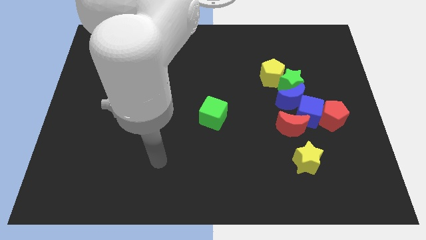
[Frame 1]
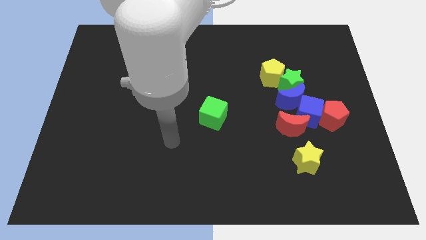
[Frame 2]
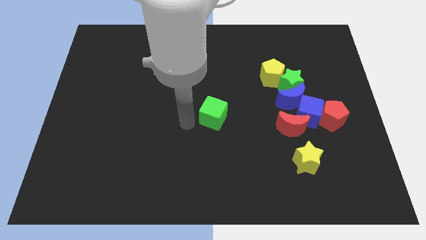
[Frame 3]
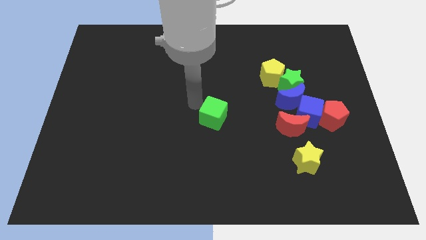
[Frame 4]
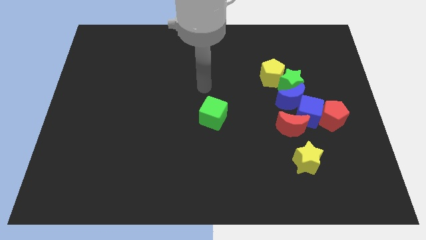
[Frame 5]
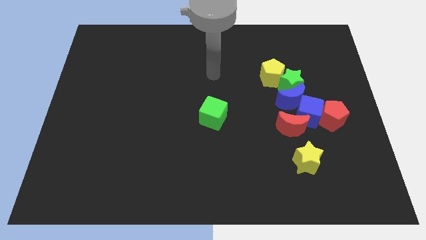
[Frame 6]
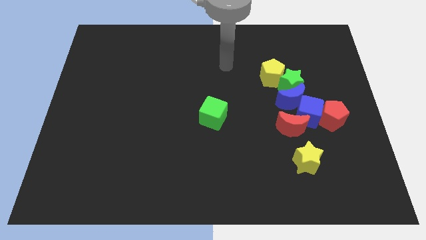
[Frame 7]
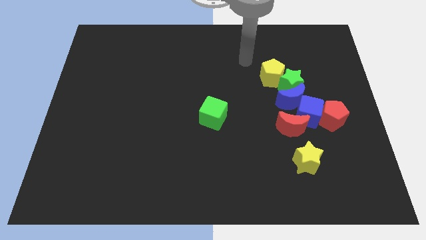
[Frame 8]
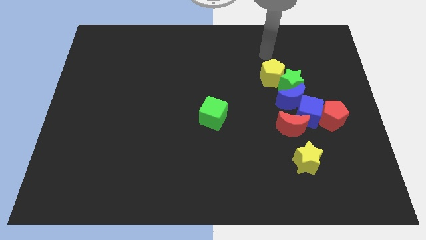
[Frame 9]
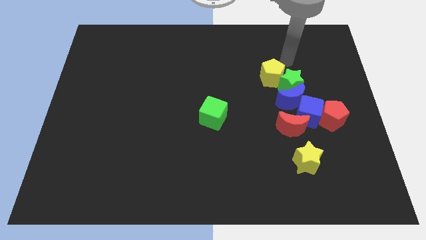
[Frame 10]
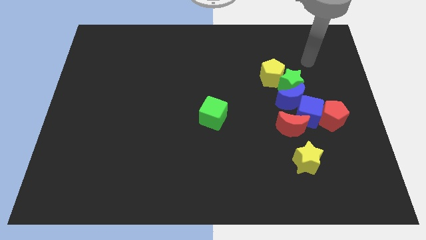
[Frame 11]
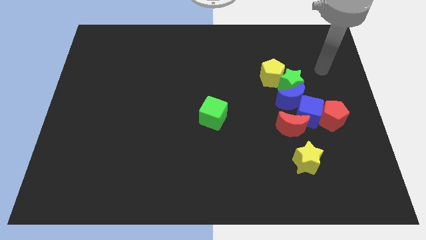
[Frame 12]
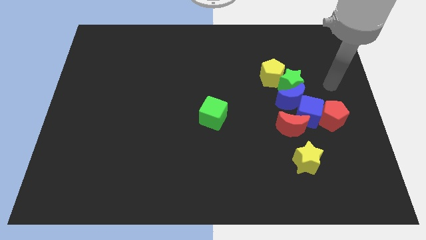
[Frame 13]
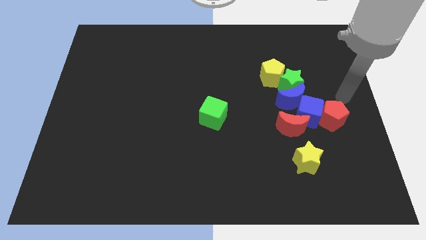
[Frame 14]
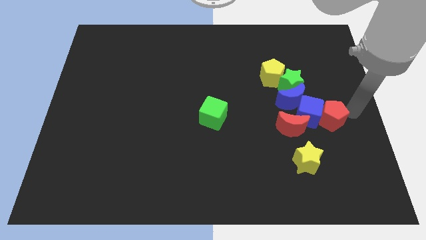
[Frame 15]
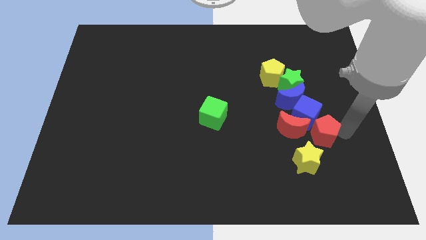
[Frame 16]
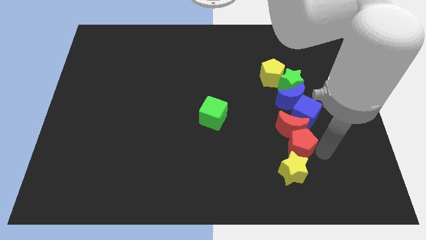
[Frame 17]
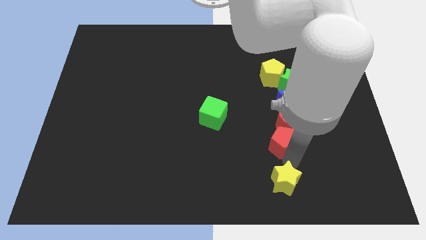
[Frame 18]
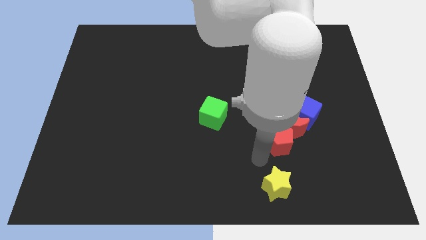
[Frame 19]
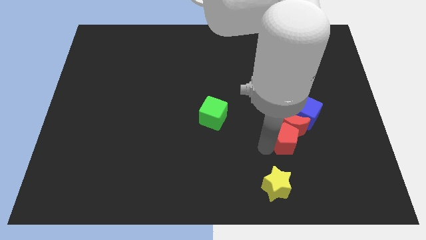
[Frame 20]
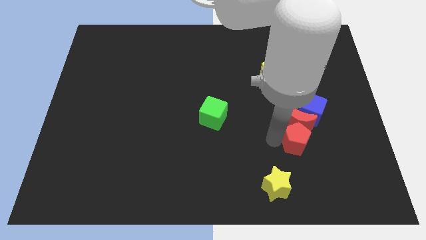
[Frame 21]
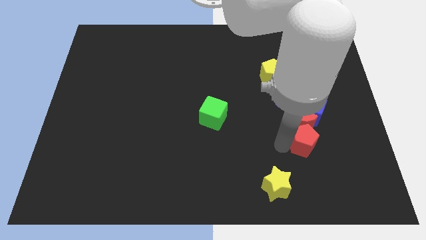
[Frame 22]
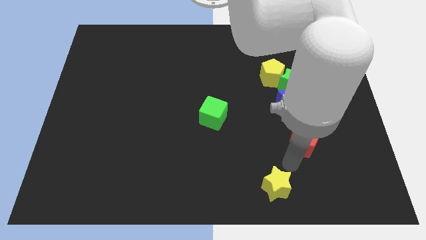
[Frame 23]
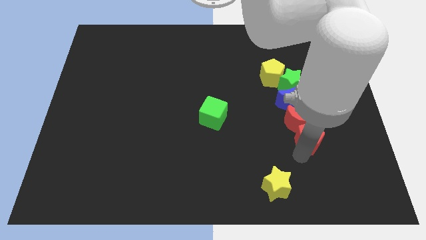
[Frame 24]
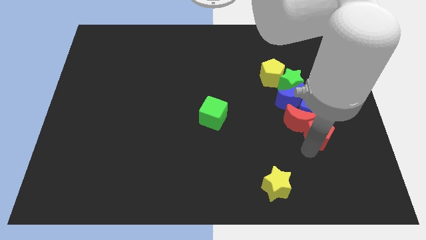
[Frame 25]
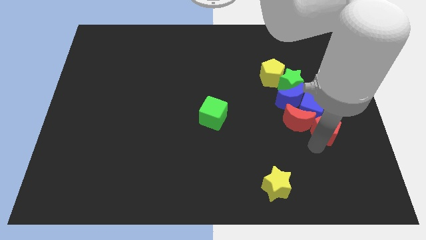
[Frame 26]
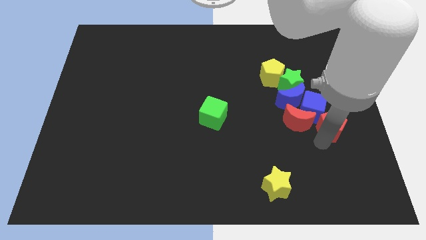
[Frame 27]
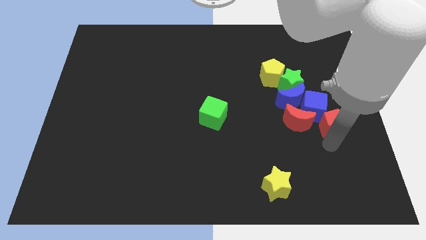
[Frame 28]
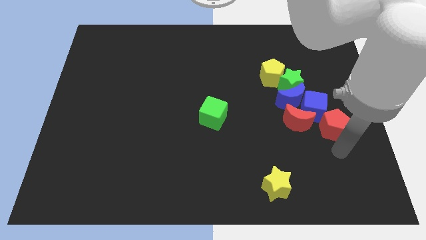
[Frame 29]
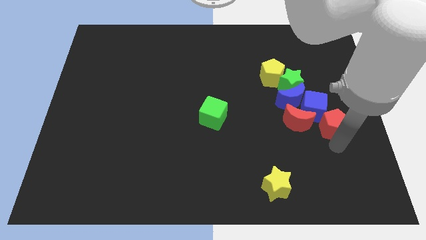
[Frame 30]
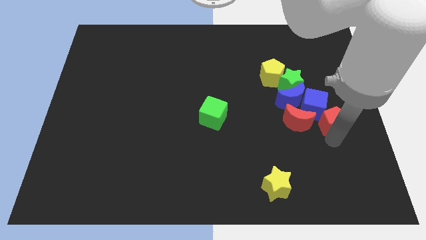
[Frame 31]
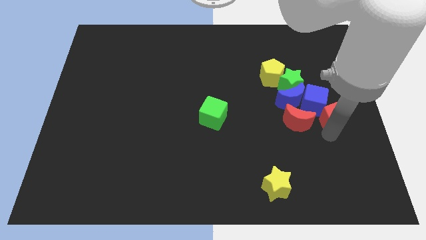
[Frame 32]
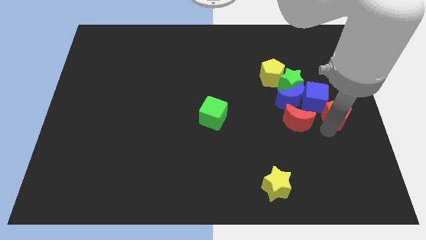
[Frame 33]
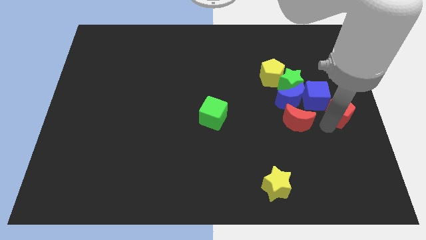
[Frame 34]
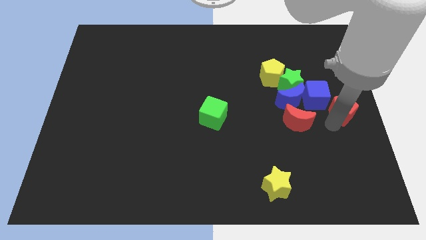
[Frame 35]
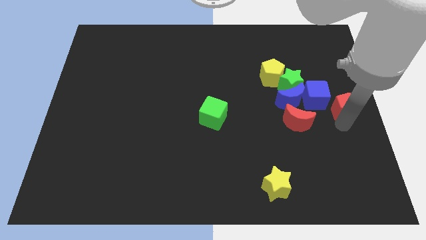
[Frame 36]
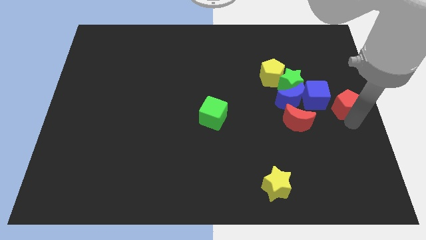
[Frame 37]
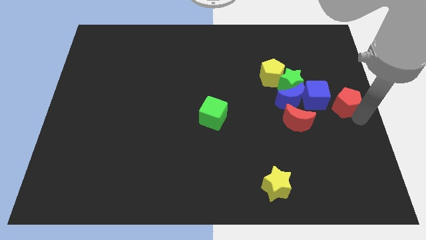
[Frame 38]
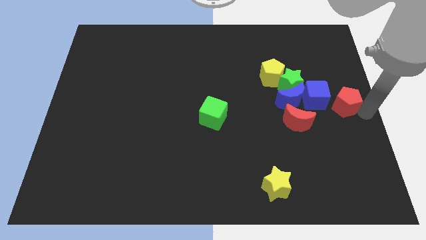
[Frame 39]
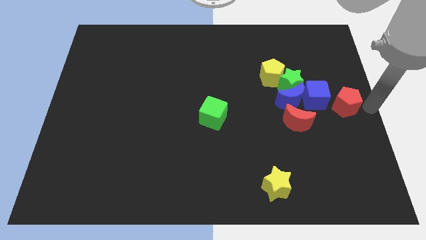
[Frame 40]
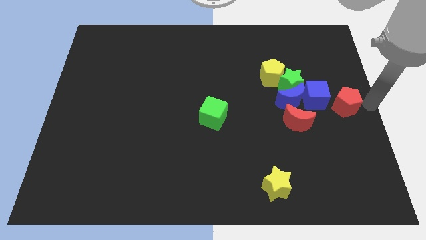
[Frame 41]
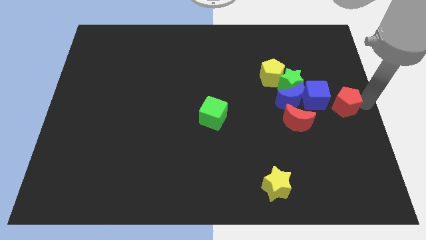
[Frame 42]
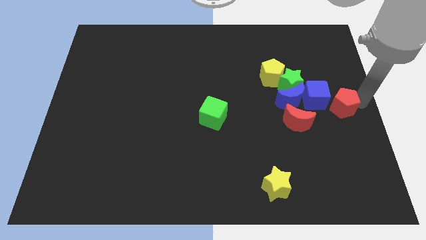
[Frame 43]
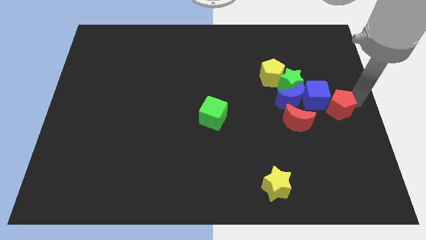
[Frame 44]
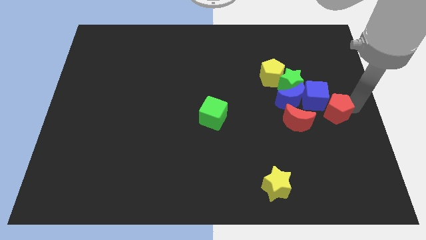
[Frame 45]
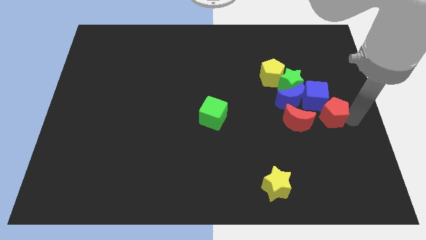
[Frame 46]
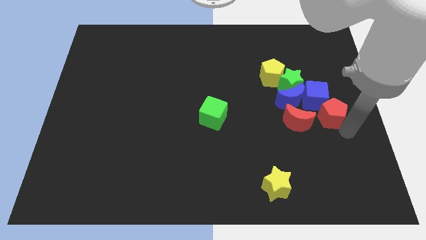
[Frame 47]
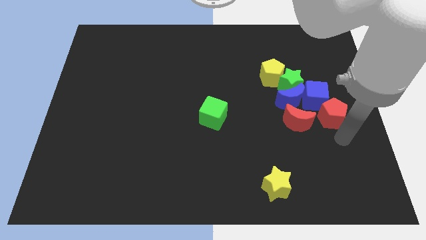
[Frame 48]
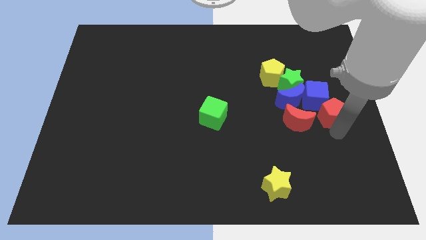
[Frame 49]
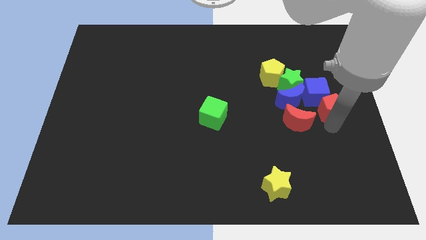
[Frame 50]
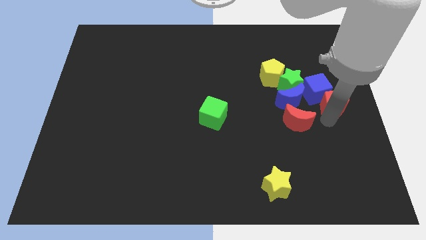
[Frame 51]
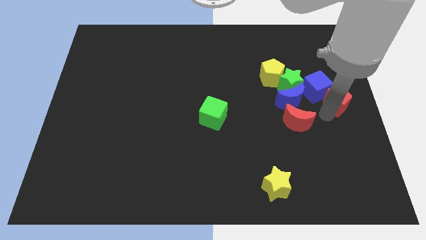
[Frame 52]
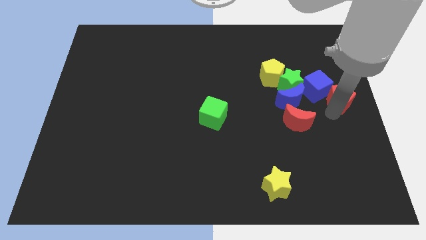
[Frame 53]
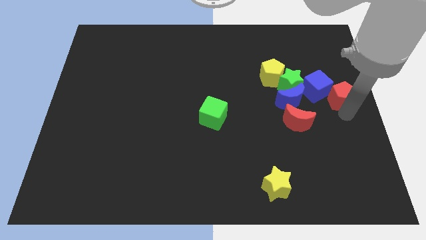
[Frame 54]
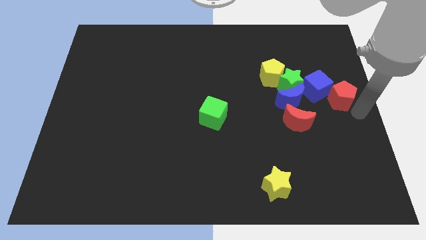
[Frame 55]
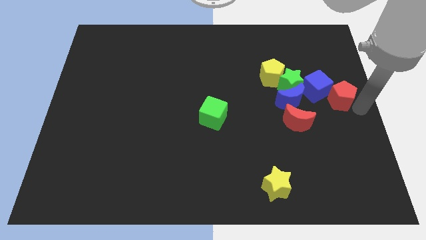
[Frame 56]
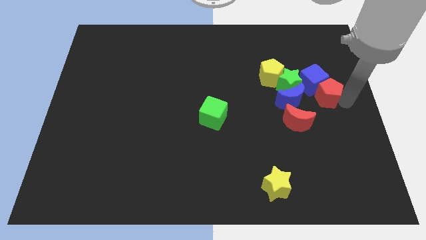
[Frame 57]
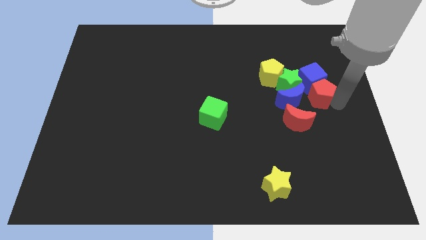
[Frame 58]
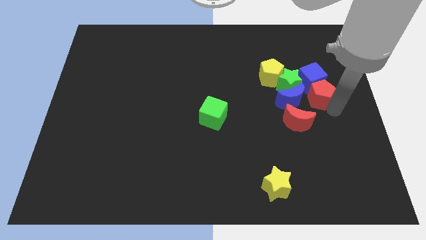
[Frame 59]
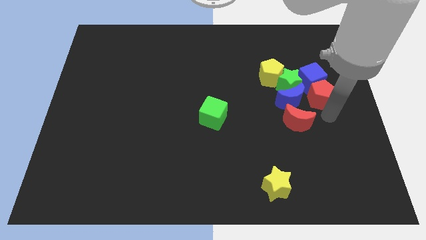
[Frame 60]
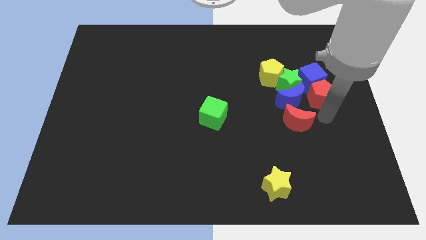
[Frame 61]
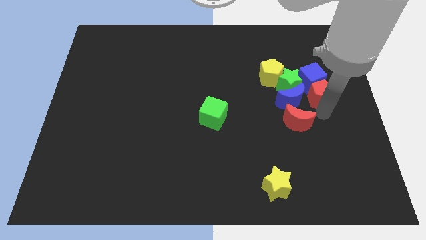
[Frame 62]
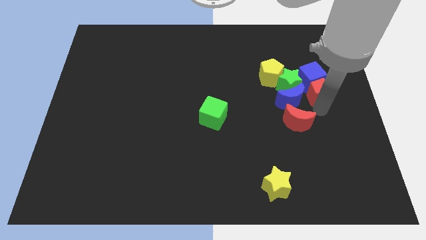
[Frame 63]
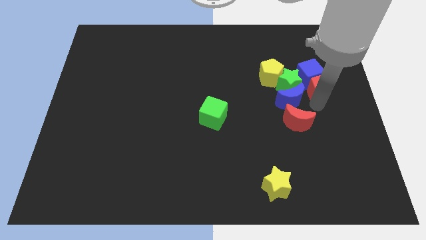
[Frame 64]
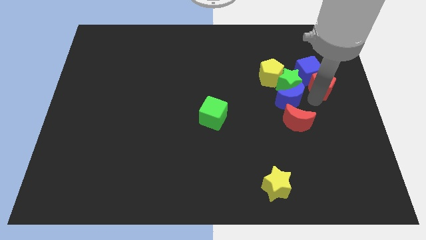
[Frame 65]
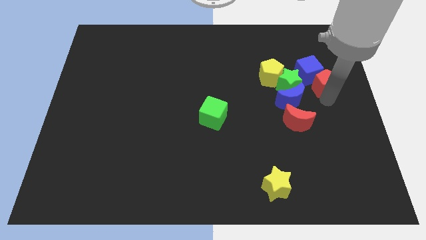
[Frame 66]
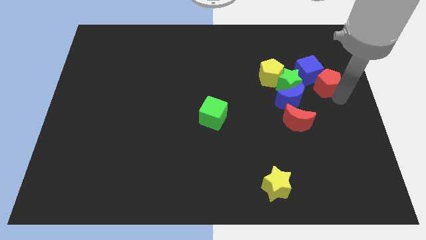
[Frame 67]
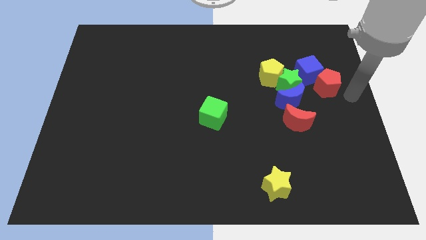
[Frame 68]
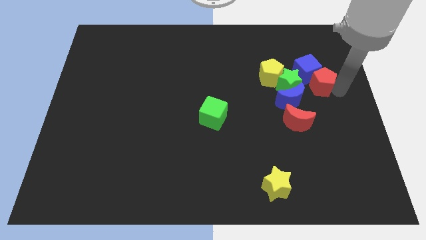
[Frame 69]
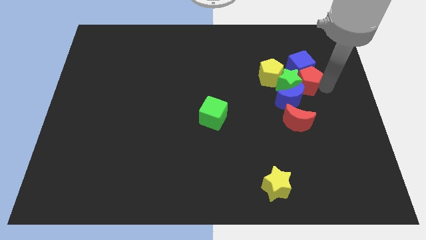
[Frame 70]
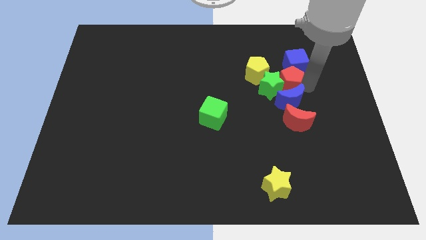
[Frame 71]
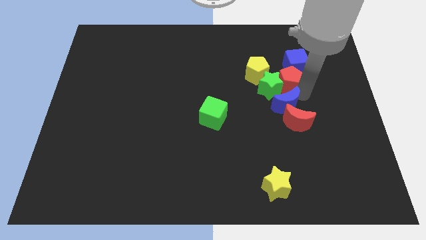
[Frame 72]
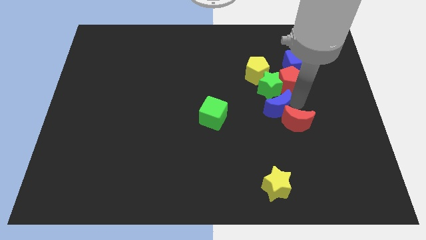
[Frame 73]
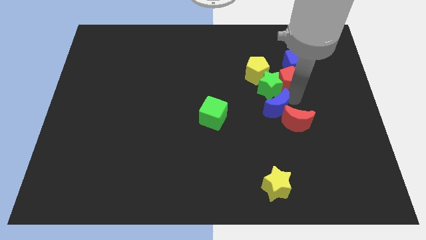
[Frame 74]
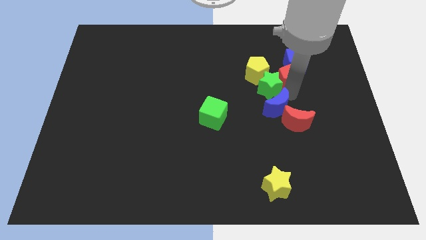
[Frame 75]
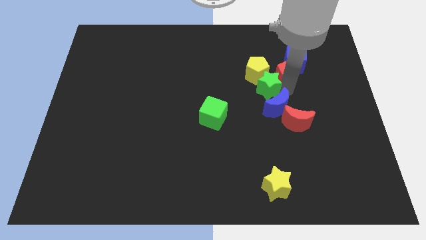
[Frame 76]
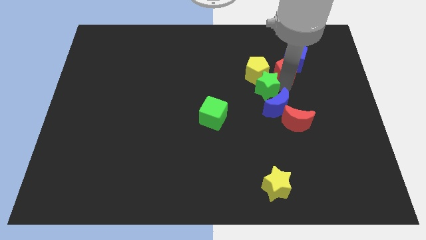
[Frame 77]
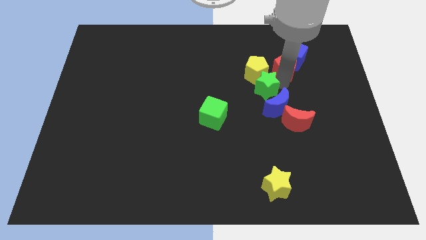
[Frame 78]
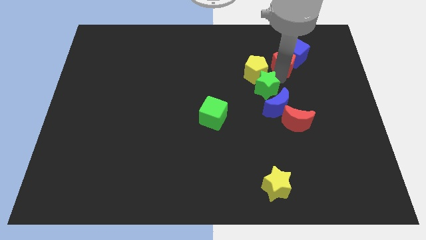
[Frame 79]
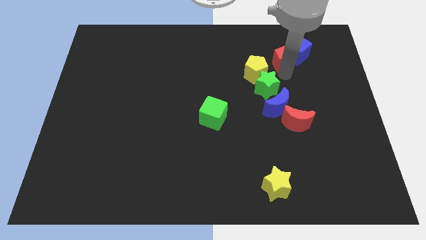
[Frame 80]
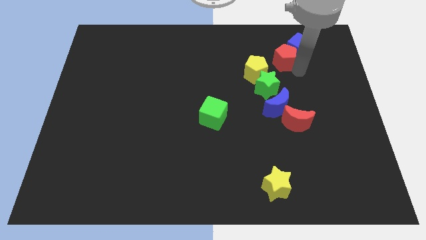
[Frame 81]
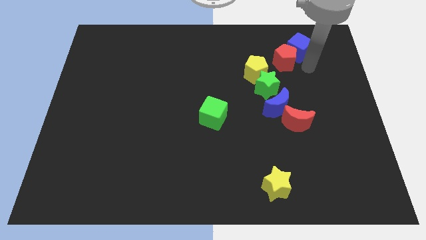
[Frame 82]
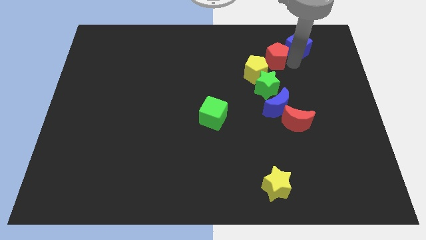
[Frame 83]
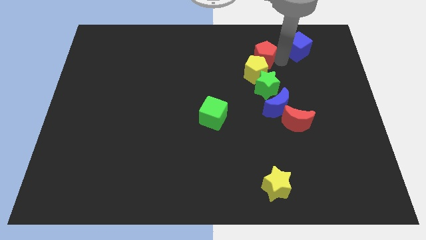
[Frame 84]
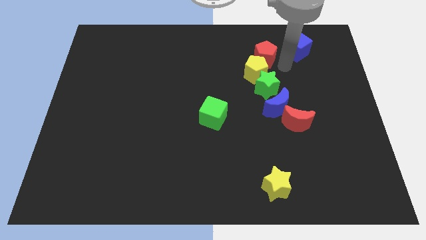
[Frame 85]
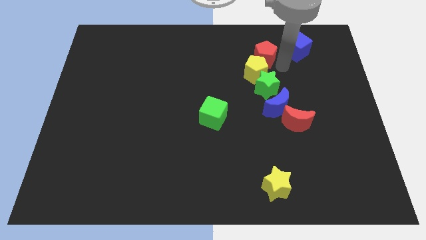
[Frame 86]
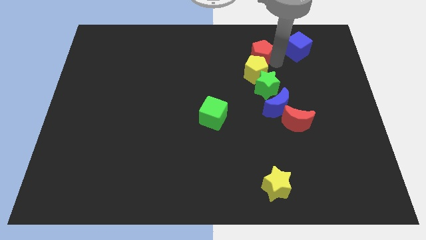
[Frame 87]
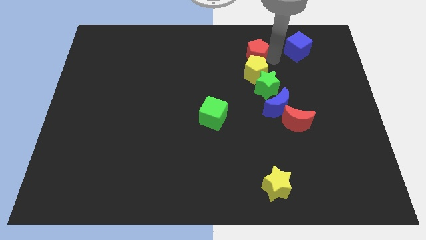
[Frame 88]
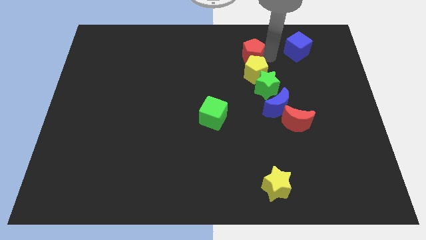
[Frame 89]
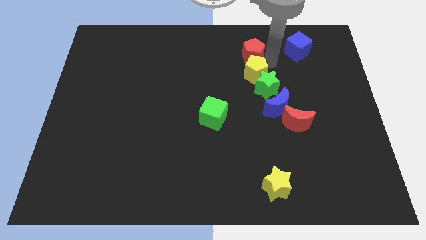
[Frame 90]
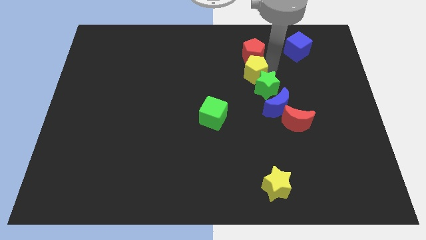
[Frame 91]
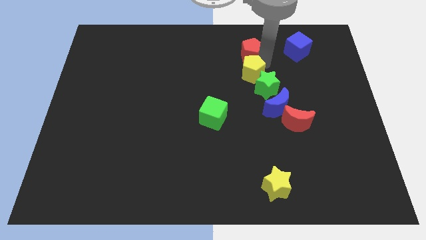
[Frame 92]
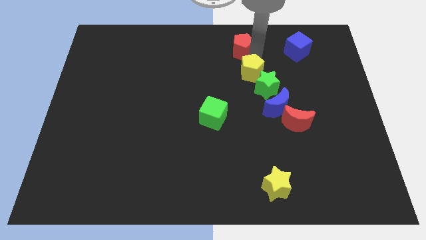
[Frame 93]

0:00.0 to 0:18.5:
push the red pentagon to the top
